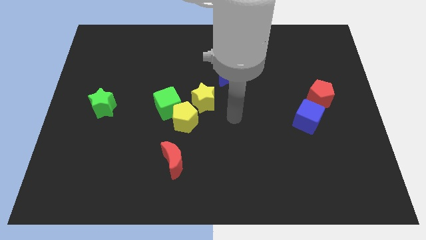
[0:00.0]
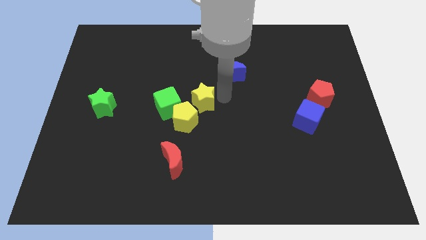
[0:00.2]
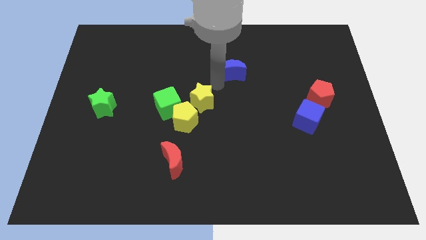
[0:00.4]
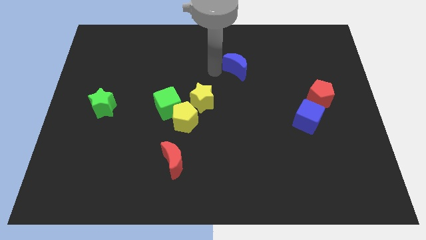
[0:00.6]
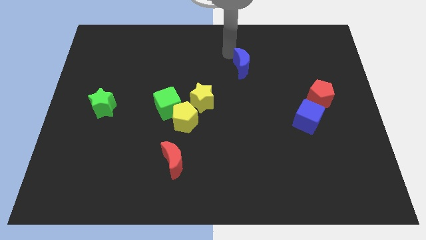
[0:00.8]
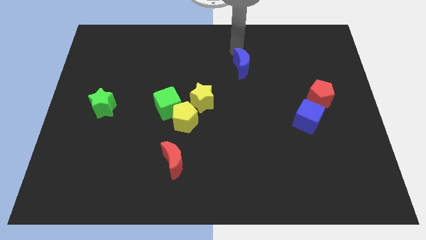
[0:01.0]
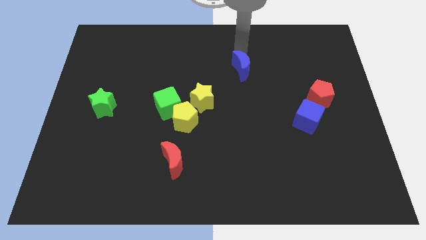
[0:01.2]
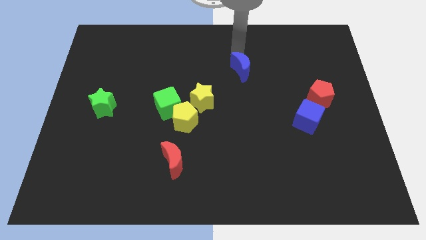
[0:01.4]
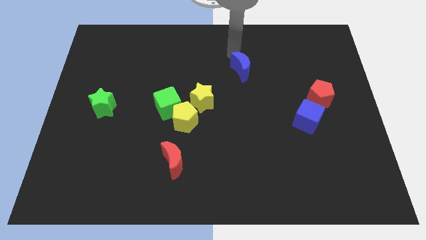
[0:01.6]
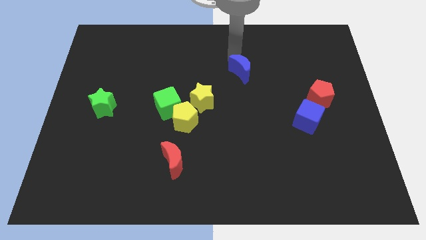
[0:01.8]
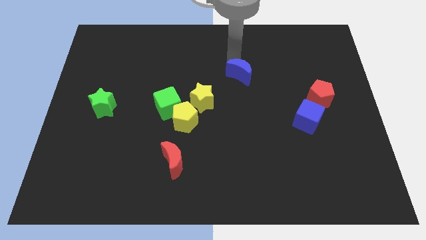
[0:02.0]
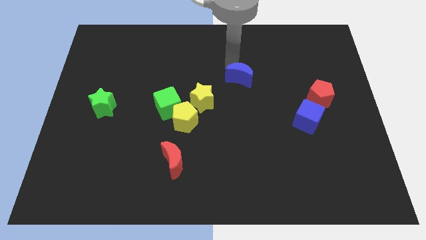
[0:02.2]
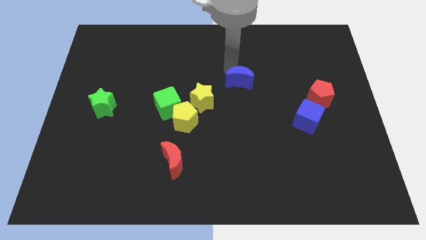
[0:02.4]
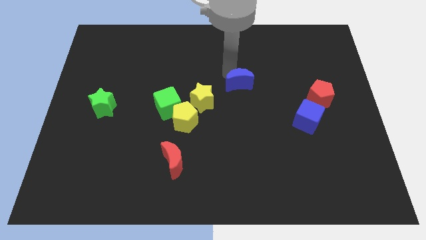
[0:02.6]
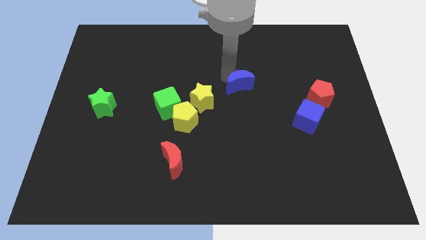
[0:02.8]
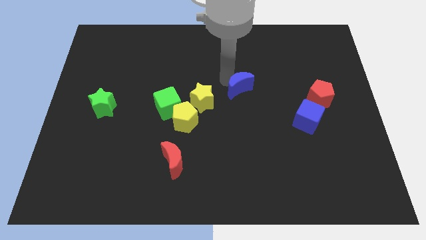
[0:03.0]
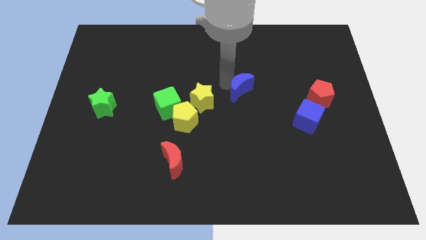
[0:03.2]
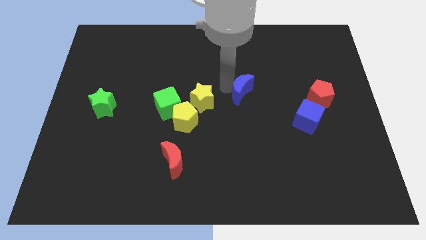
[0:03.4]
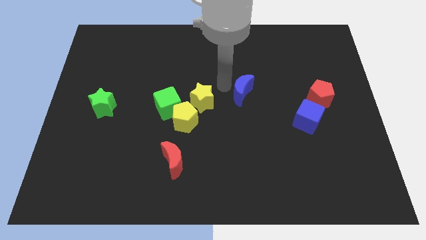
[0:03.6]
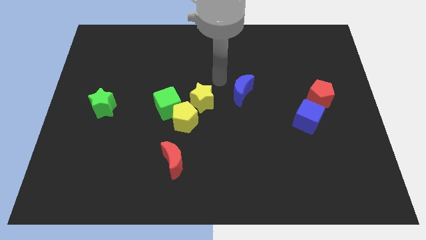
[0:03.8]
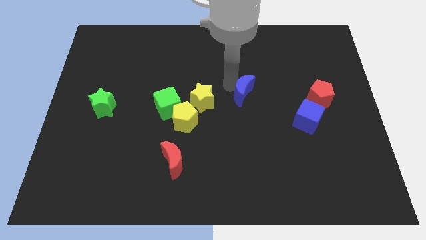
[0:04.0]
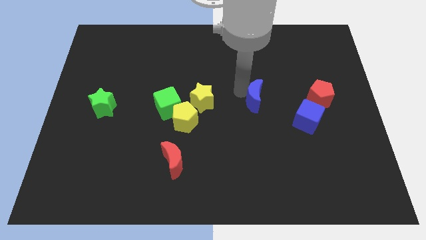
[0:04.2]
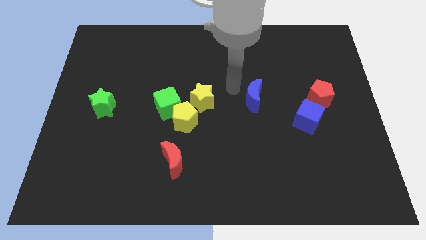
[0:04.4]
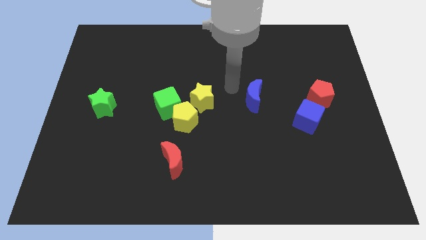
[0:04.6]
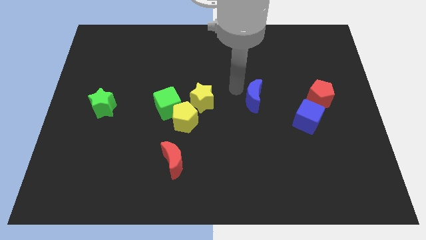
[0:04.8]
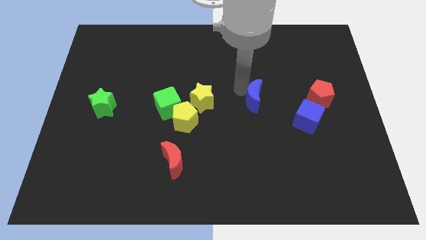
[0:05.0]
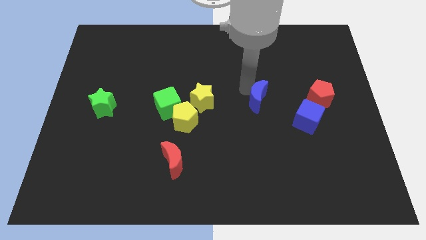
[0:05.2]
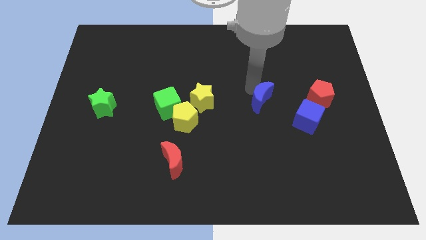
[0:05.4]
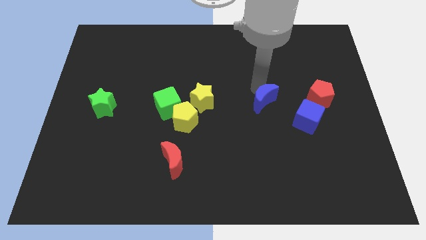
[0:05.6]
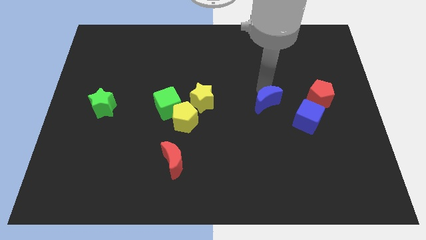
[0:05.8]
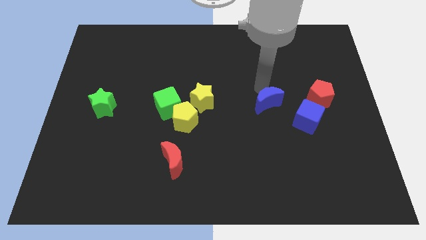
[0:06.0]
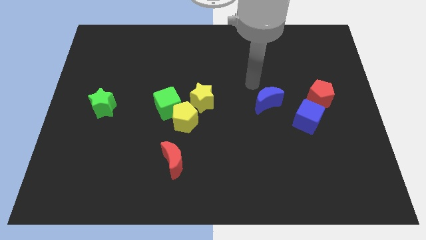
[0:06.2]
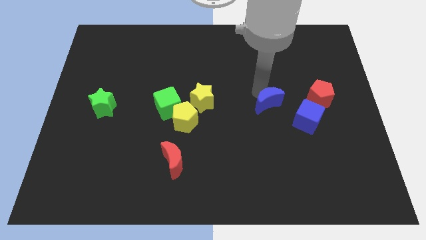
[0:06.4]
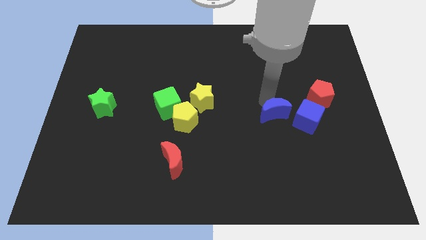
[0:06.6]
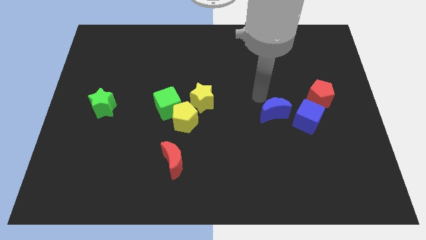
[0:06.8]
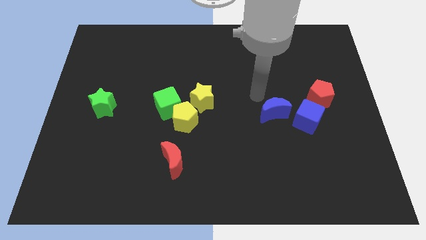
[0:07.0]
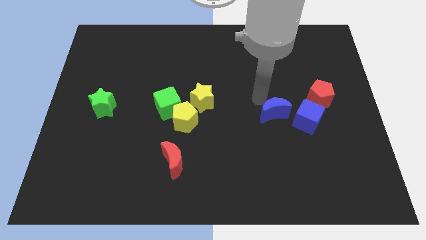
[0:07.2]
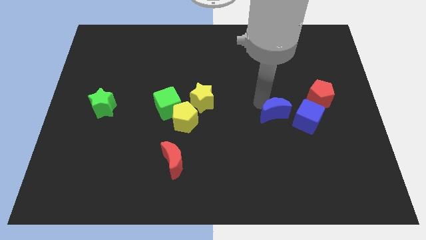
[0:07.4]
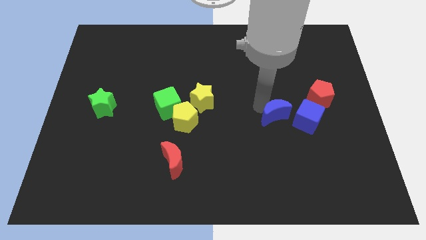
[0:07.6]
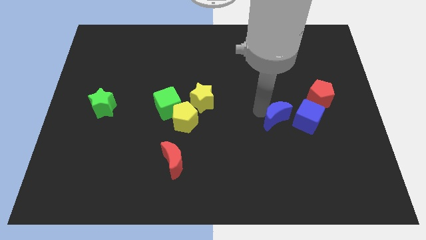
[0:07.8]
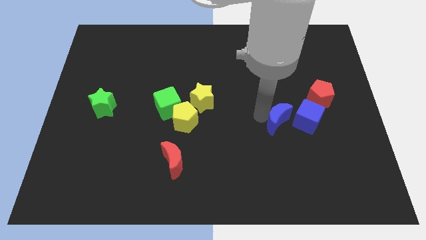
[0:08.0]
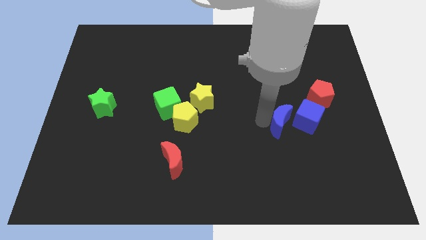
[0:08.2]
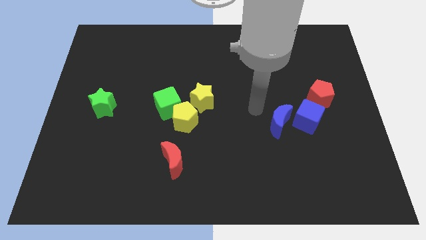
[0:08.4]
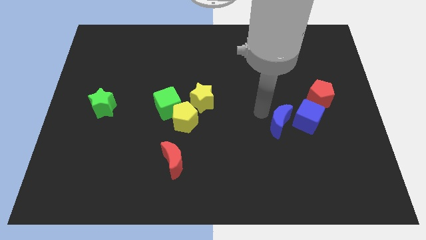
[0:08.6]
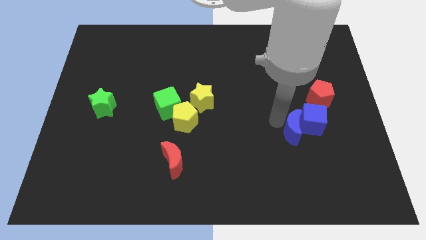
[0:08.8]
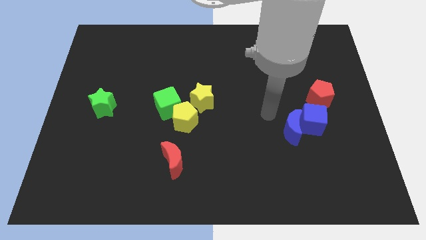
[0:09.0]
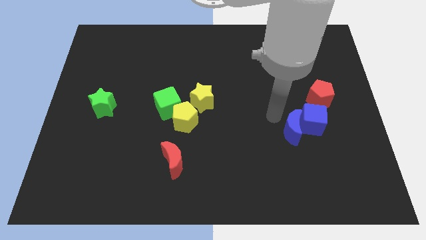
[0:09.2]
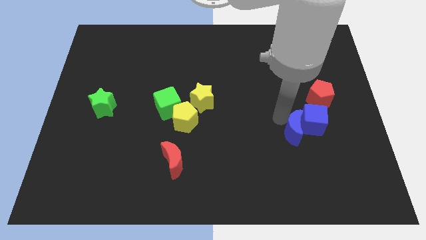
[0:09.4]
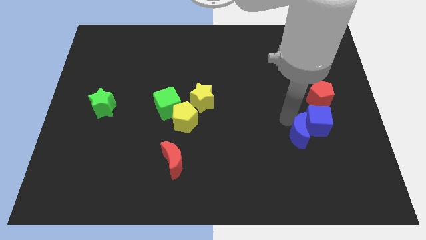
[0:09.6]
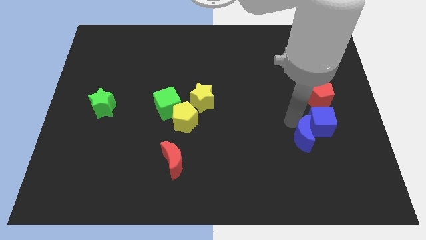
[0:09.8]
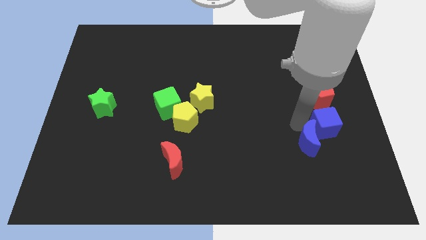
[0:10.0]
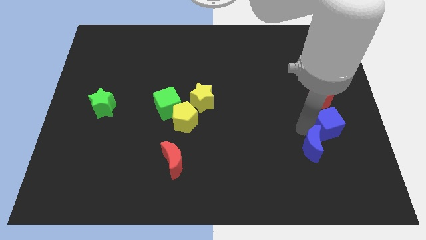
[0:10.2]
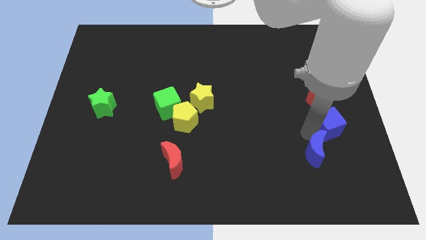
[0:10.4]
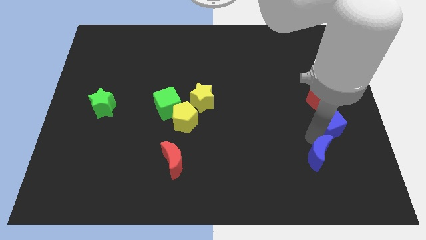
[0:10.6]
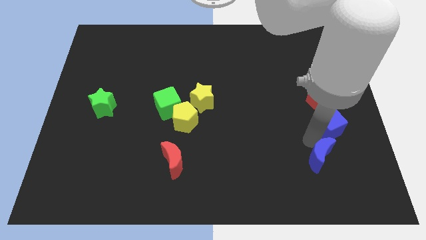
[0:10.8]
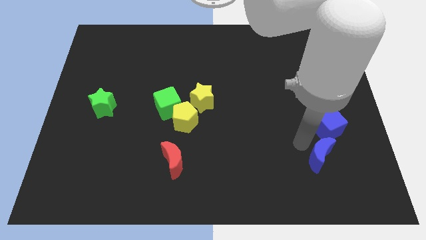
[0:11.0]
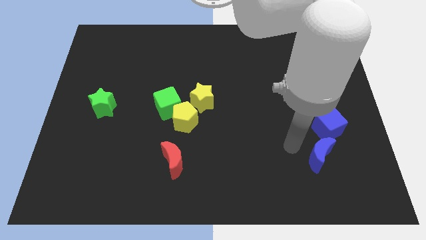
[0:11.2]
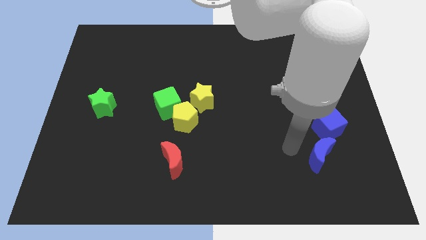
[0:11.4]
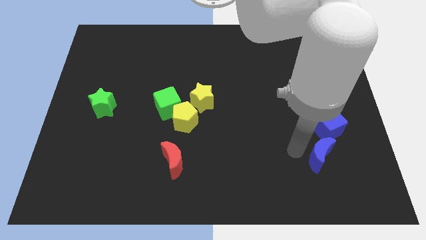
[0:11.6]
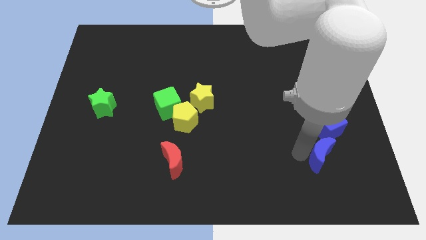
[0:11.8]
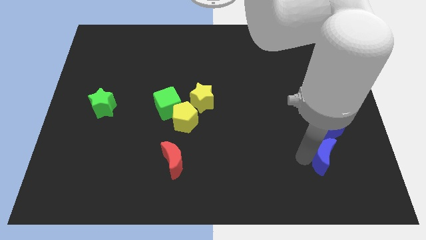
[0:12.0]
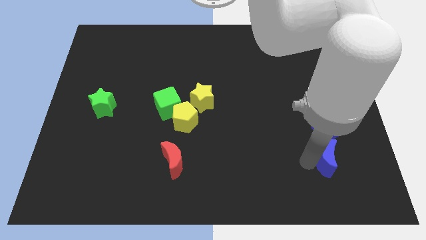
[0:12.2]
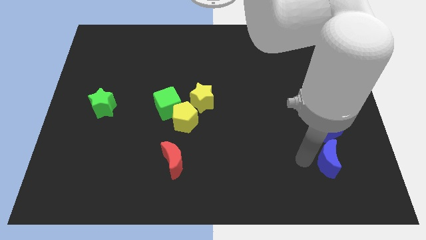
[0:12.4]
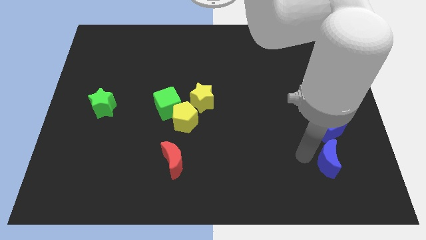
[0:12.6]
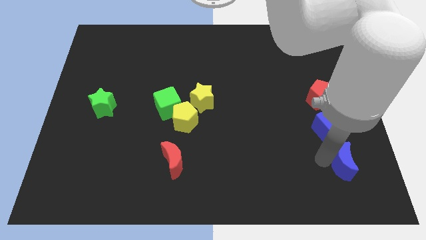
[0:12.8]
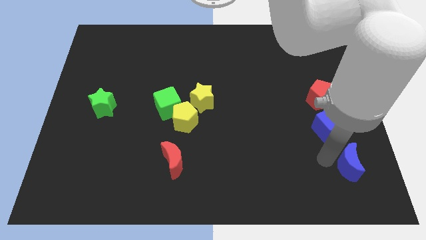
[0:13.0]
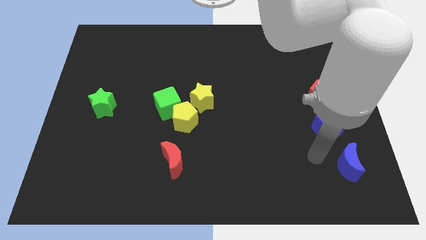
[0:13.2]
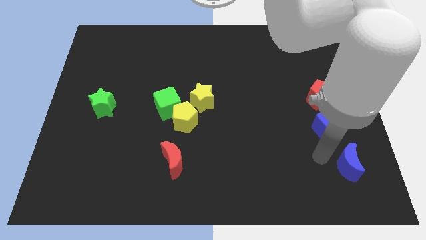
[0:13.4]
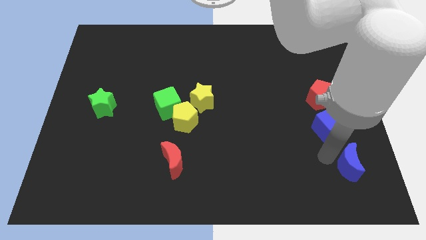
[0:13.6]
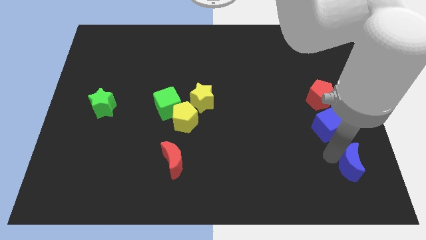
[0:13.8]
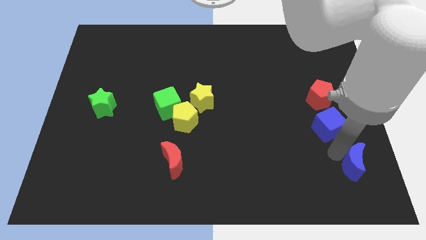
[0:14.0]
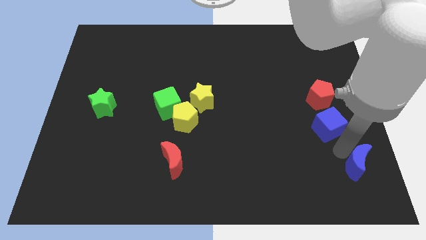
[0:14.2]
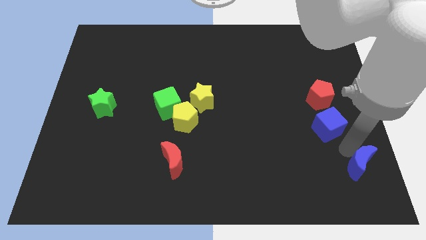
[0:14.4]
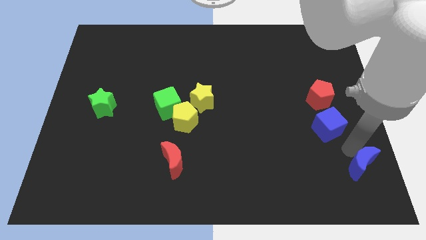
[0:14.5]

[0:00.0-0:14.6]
slide the blue moon to the bottom right
